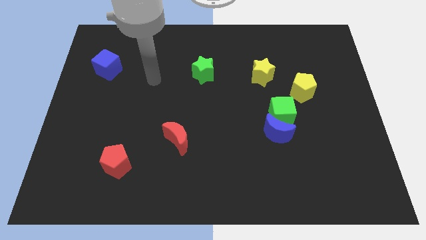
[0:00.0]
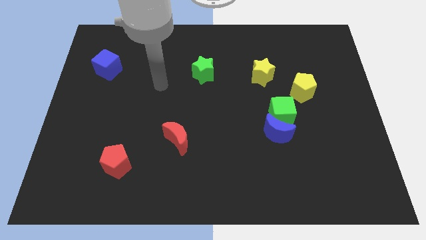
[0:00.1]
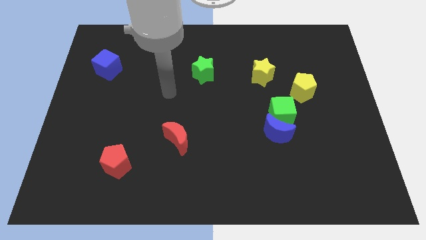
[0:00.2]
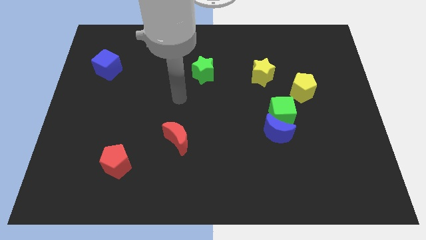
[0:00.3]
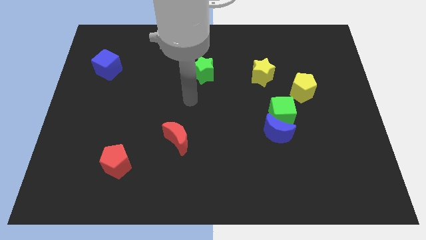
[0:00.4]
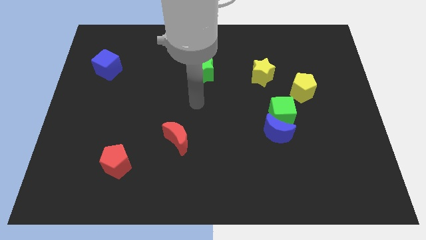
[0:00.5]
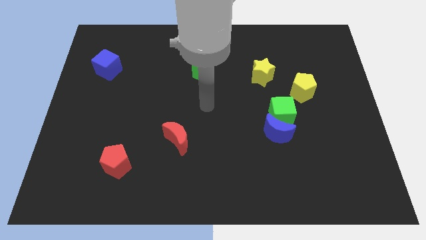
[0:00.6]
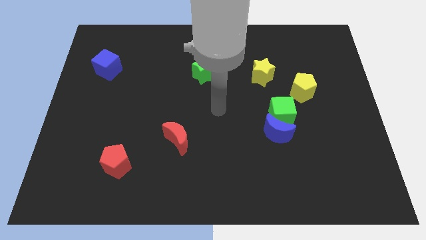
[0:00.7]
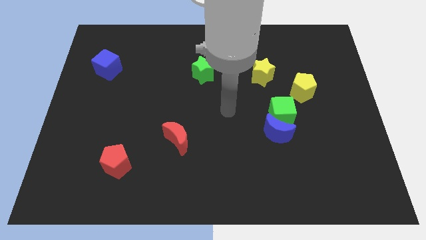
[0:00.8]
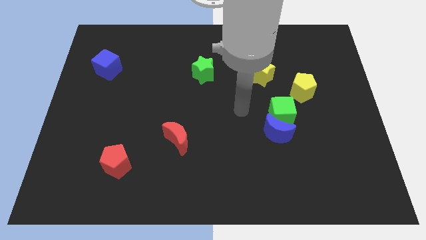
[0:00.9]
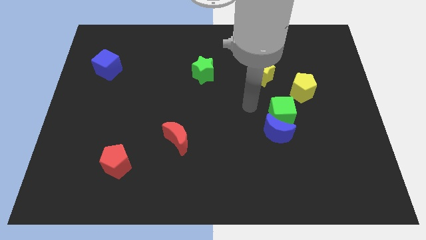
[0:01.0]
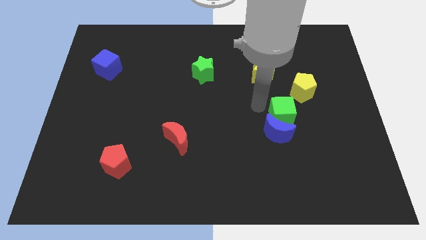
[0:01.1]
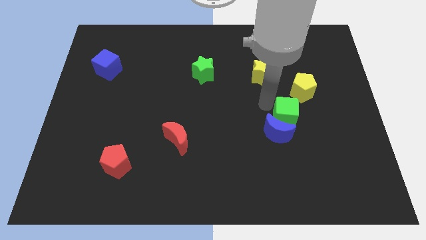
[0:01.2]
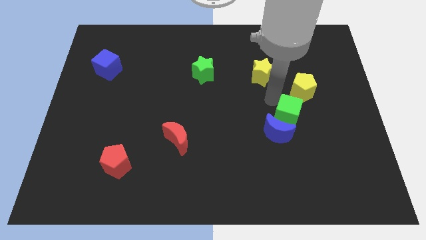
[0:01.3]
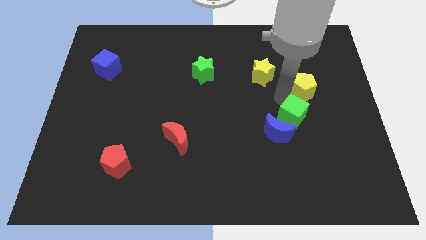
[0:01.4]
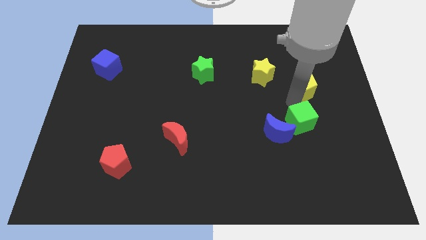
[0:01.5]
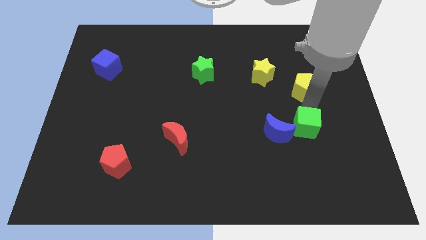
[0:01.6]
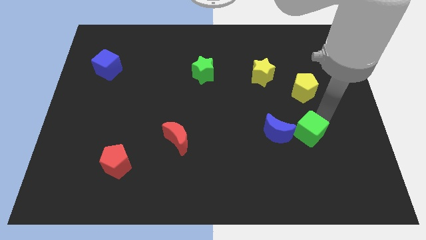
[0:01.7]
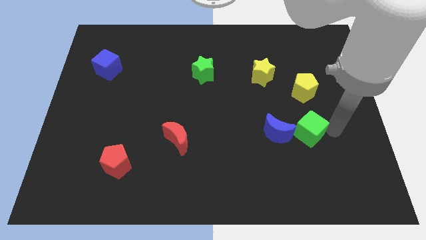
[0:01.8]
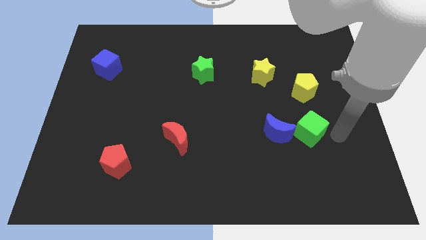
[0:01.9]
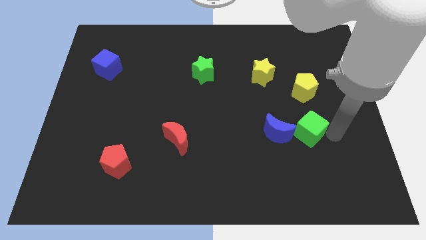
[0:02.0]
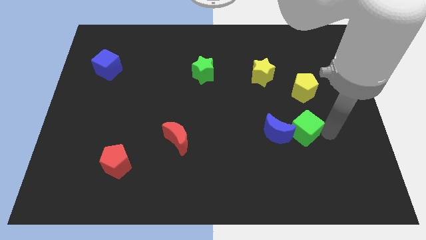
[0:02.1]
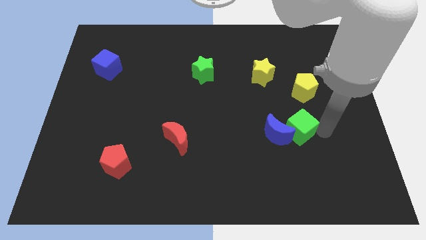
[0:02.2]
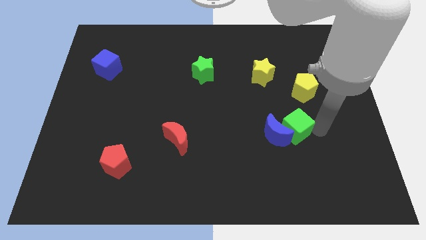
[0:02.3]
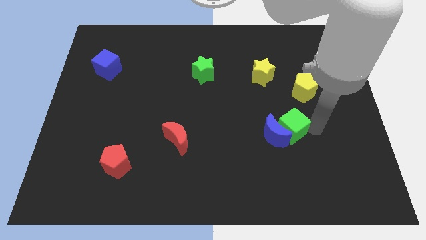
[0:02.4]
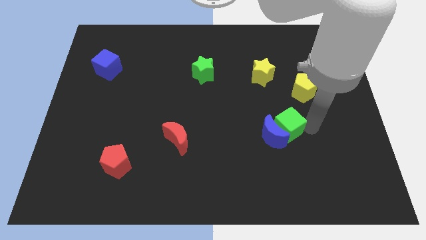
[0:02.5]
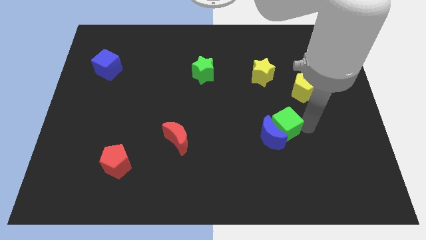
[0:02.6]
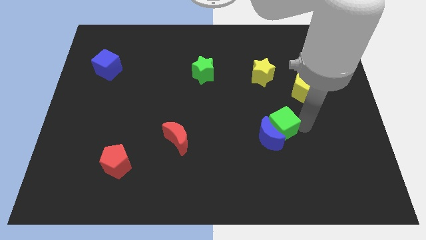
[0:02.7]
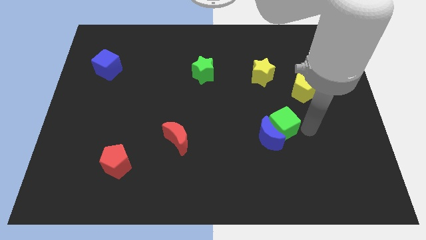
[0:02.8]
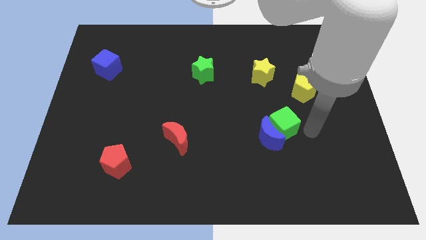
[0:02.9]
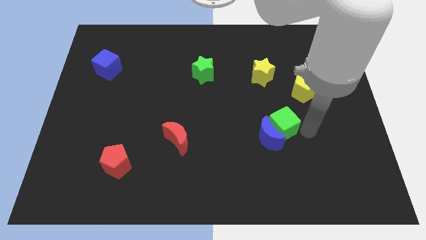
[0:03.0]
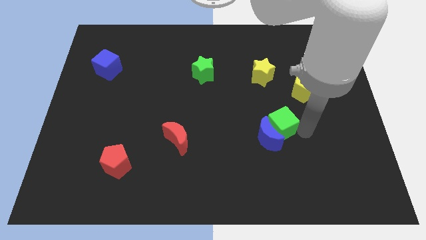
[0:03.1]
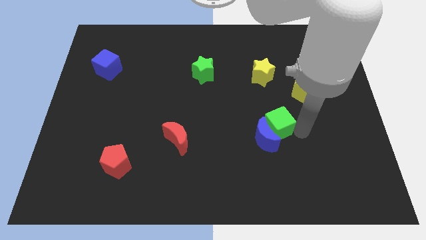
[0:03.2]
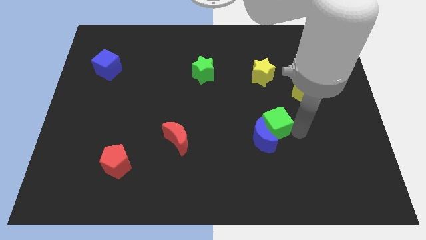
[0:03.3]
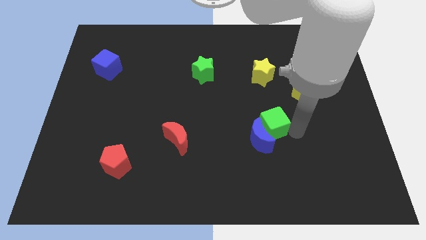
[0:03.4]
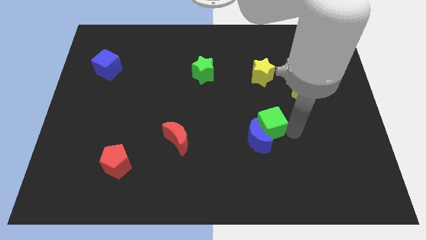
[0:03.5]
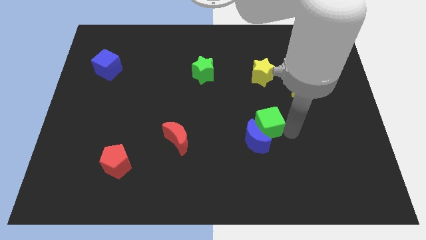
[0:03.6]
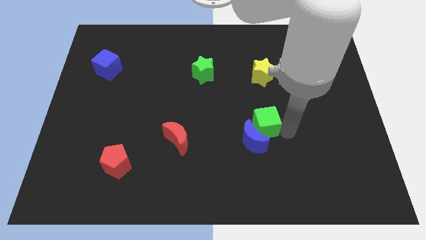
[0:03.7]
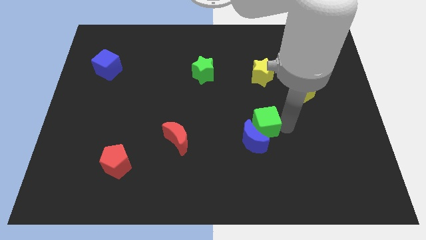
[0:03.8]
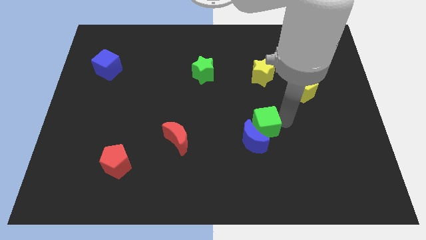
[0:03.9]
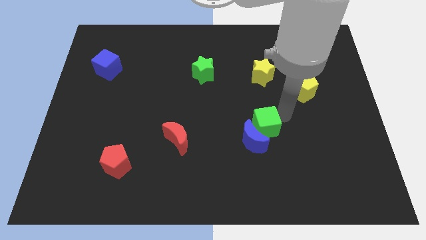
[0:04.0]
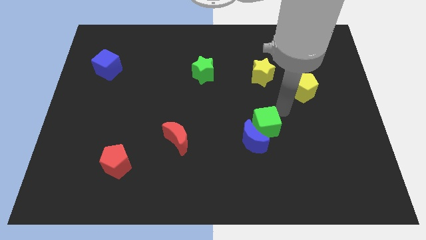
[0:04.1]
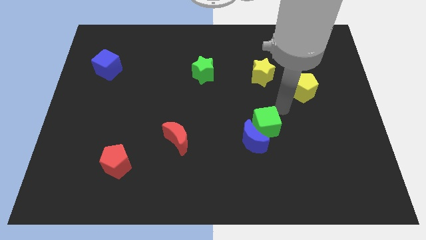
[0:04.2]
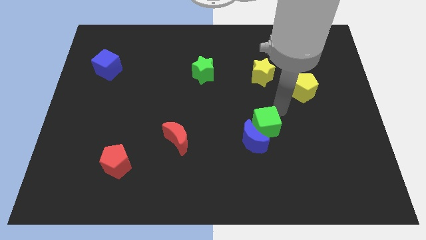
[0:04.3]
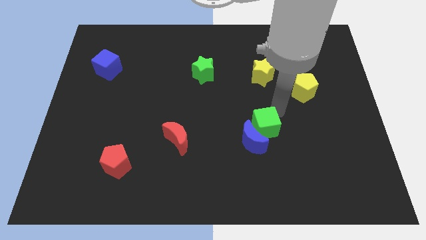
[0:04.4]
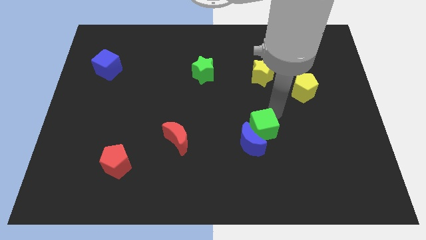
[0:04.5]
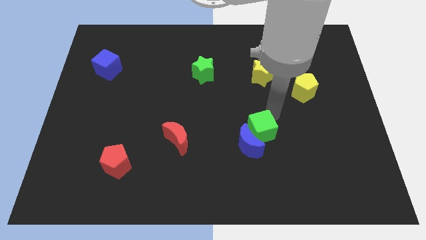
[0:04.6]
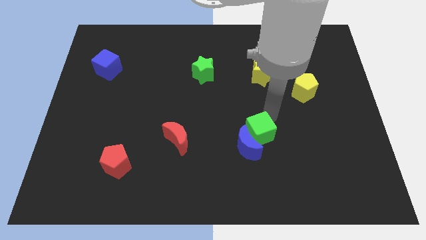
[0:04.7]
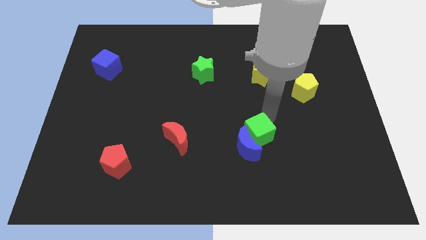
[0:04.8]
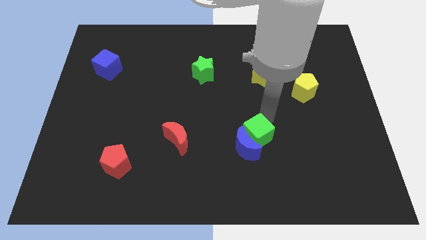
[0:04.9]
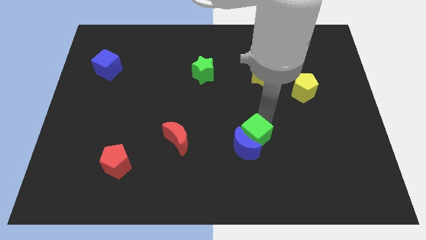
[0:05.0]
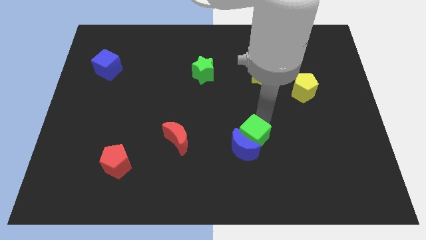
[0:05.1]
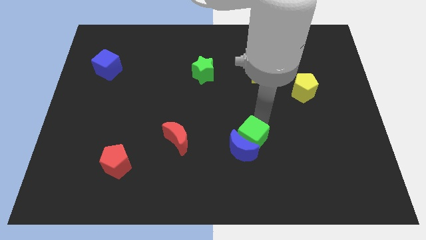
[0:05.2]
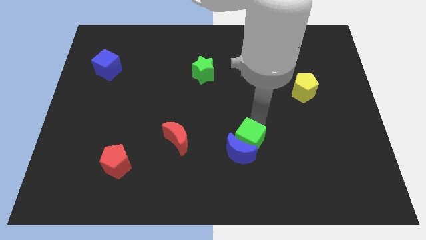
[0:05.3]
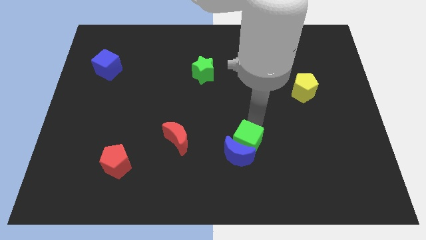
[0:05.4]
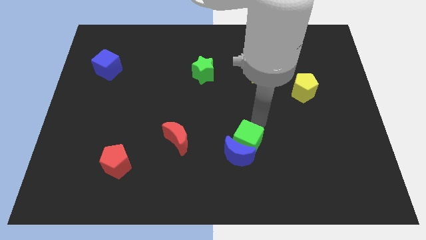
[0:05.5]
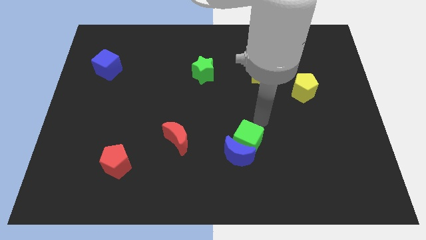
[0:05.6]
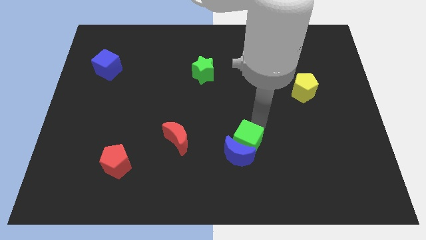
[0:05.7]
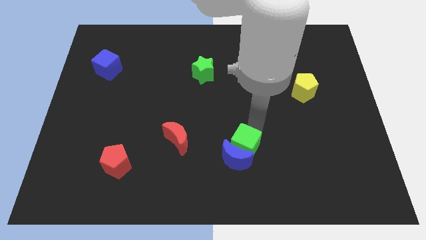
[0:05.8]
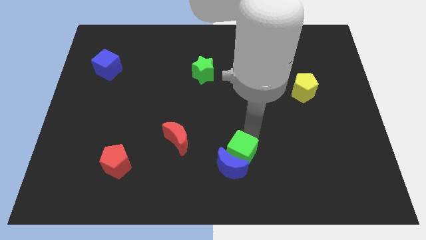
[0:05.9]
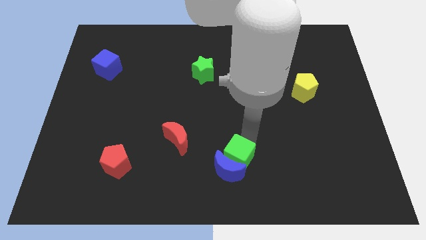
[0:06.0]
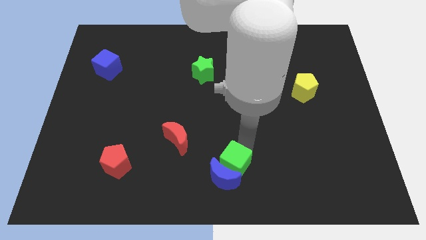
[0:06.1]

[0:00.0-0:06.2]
move the green cube to the bottom side

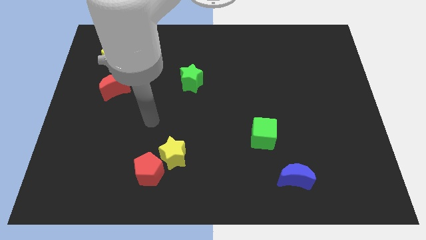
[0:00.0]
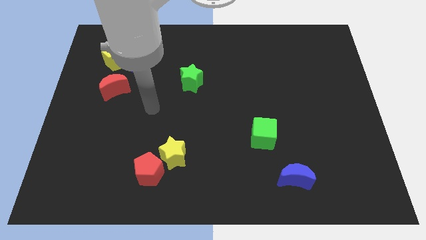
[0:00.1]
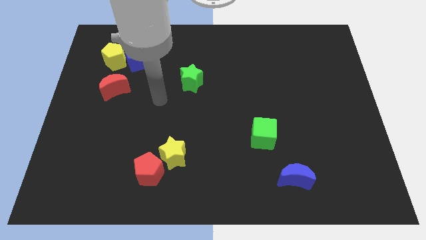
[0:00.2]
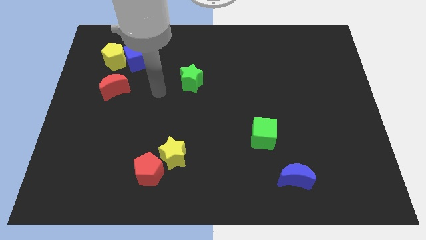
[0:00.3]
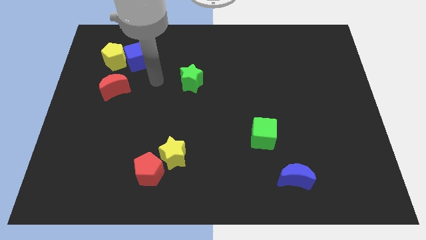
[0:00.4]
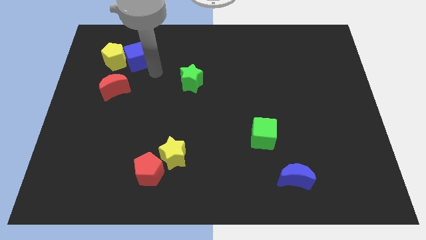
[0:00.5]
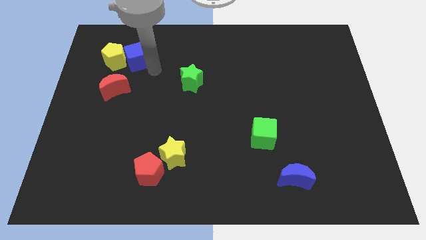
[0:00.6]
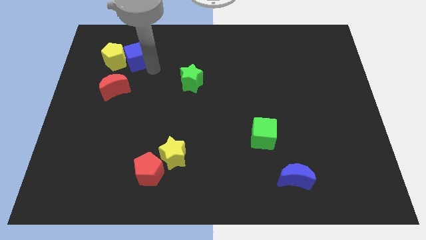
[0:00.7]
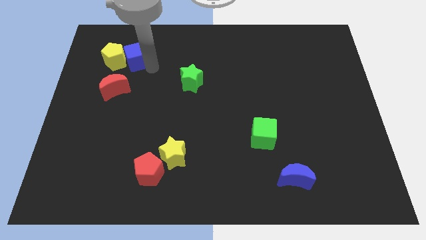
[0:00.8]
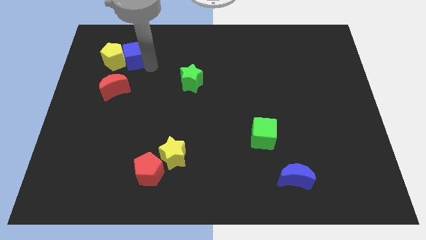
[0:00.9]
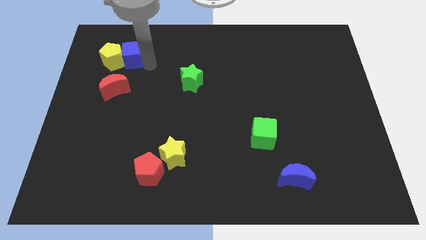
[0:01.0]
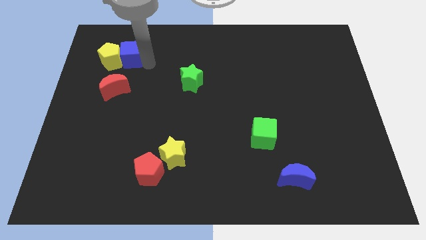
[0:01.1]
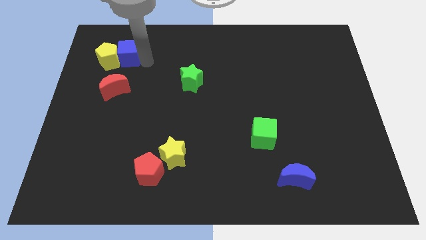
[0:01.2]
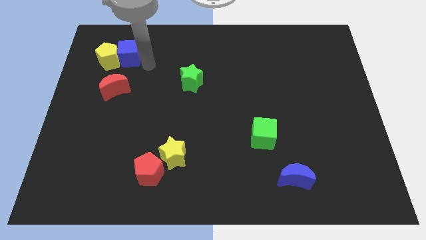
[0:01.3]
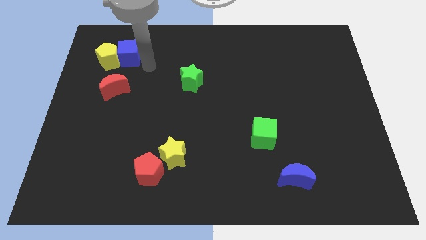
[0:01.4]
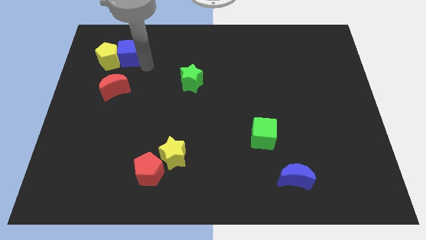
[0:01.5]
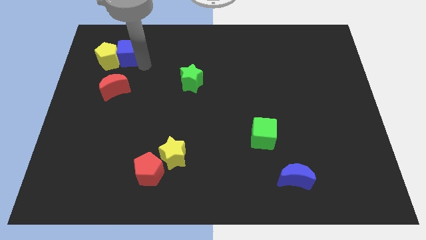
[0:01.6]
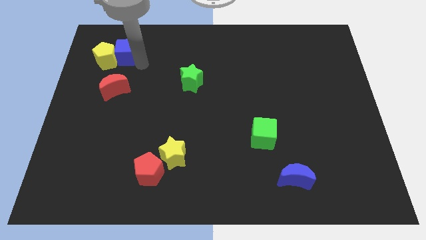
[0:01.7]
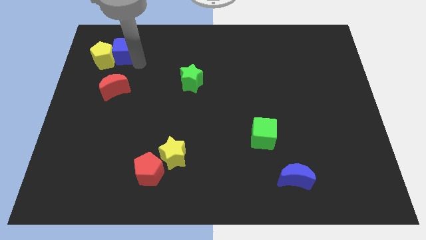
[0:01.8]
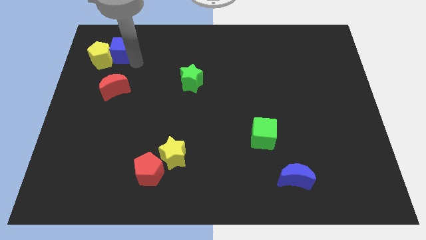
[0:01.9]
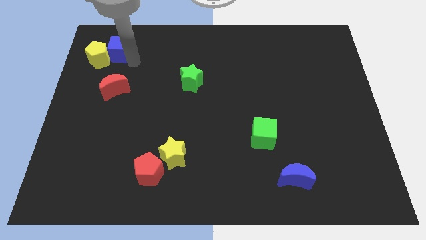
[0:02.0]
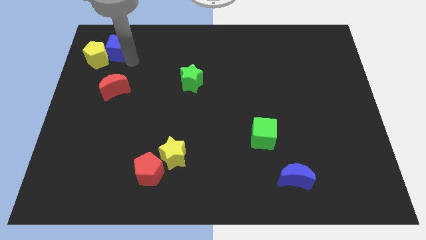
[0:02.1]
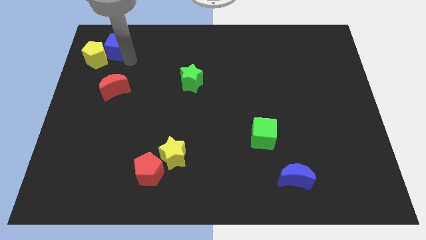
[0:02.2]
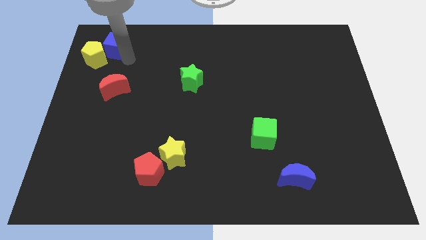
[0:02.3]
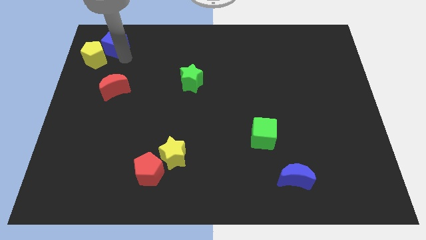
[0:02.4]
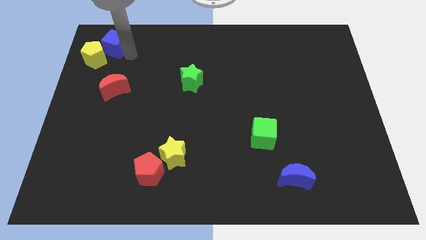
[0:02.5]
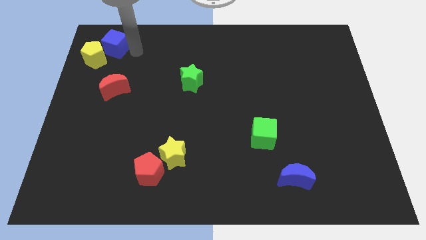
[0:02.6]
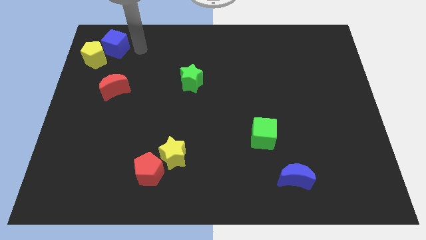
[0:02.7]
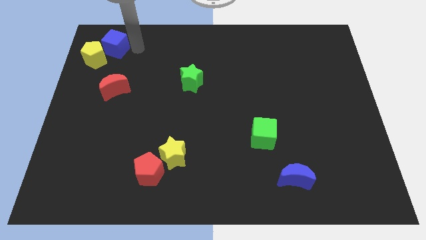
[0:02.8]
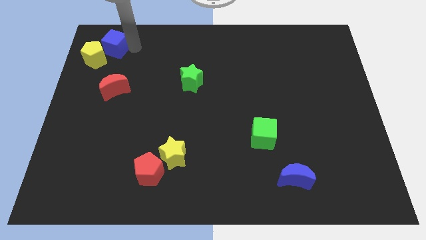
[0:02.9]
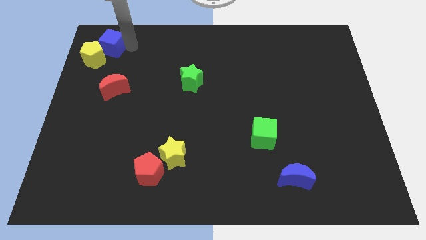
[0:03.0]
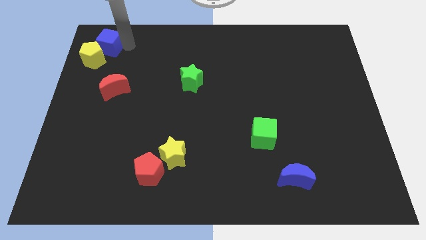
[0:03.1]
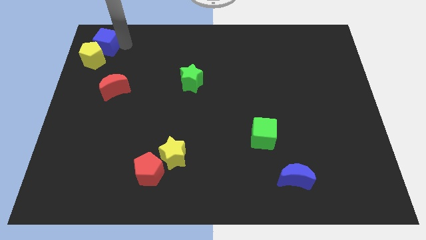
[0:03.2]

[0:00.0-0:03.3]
move the blue cube to the top left
